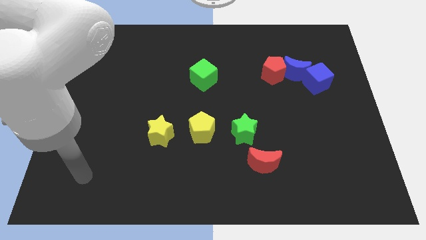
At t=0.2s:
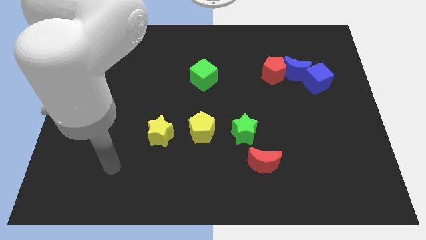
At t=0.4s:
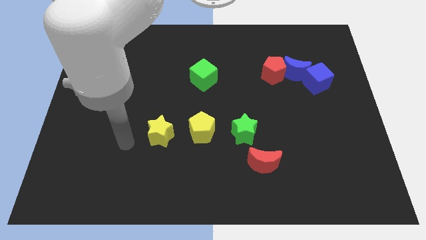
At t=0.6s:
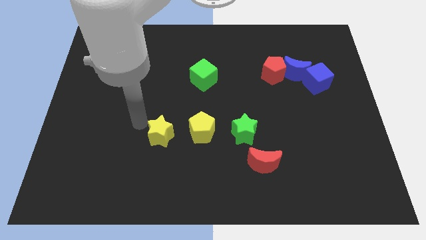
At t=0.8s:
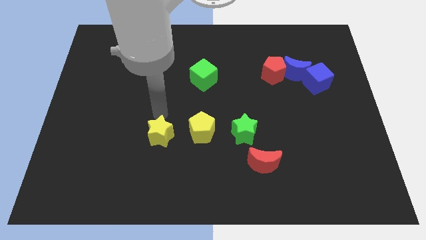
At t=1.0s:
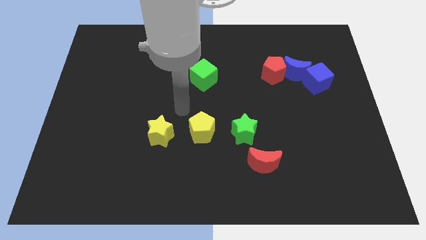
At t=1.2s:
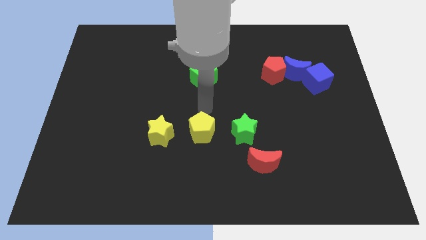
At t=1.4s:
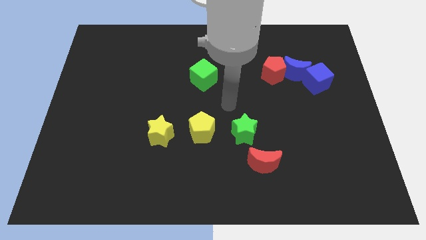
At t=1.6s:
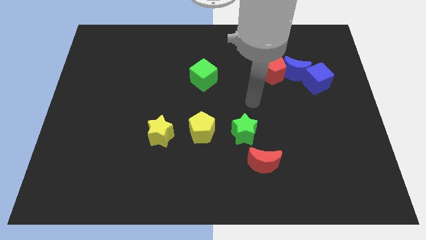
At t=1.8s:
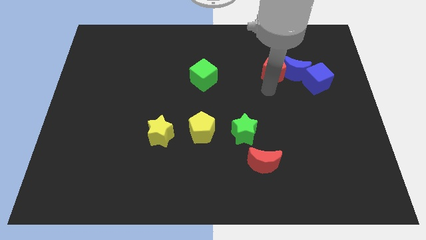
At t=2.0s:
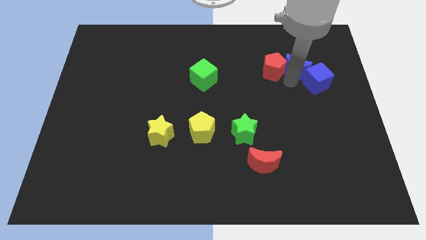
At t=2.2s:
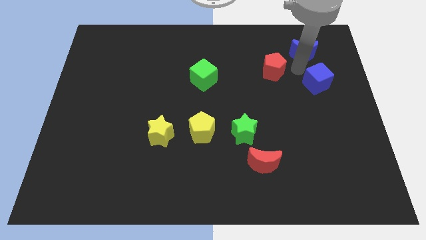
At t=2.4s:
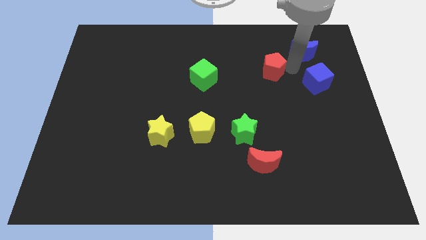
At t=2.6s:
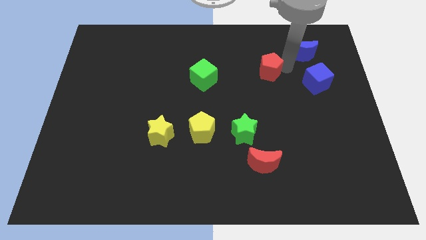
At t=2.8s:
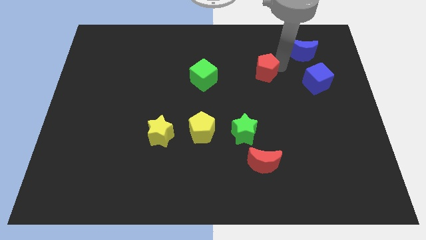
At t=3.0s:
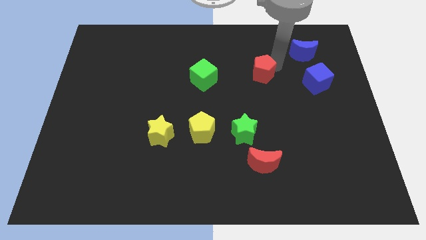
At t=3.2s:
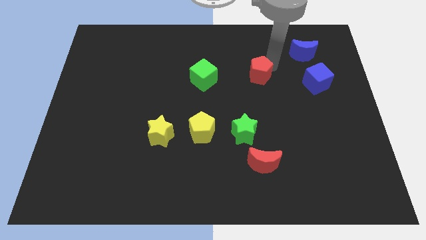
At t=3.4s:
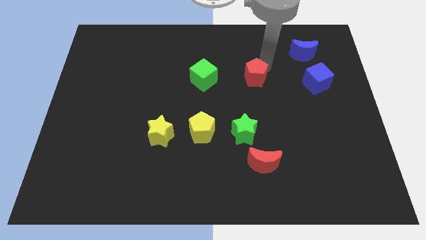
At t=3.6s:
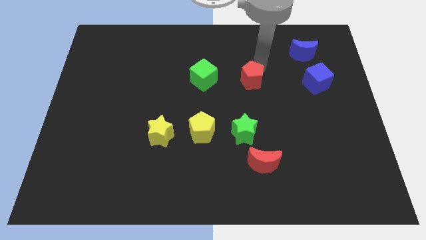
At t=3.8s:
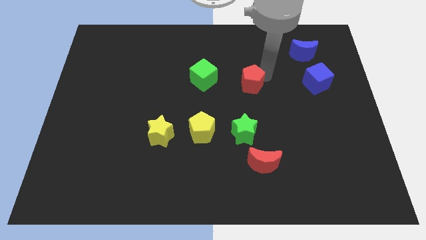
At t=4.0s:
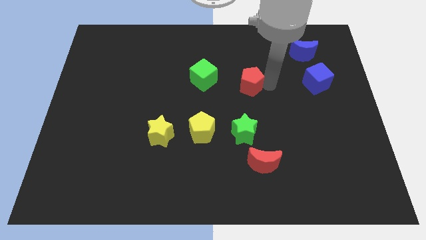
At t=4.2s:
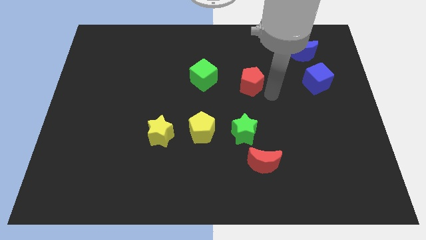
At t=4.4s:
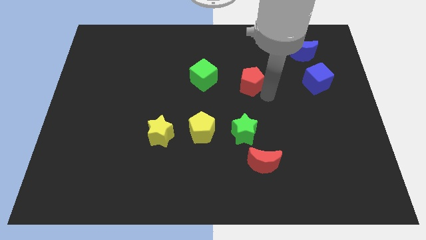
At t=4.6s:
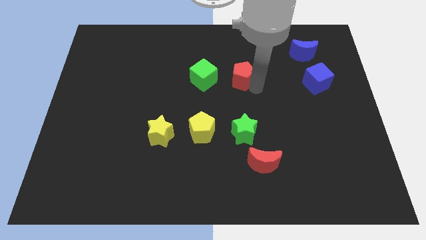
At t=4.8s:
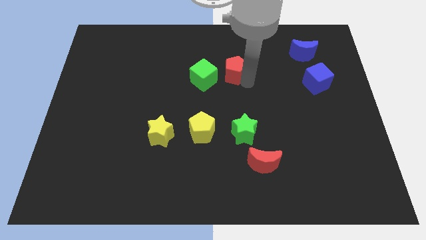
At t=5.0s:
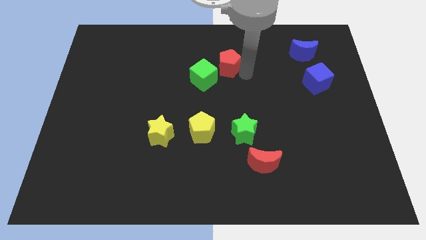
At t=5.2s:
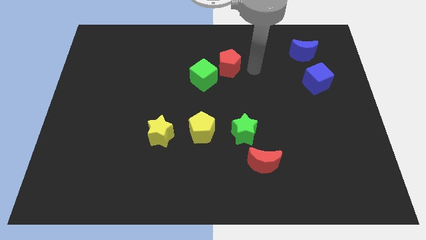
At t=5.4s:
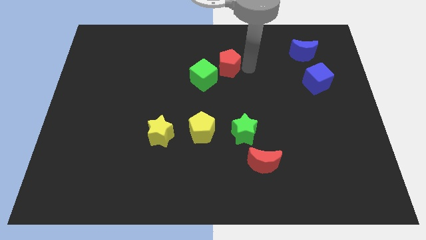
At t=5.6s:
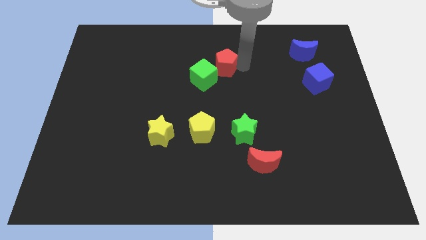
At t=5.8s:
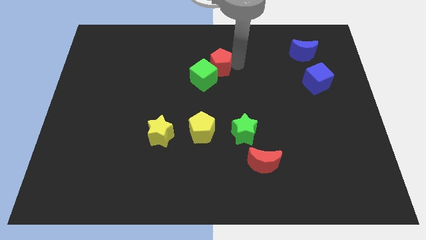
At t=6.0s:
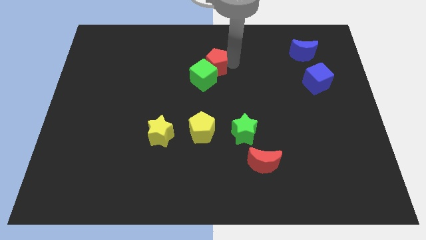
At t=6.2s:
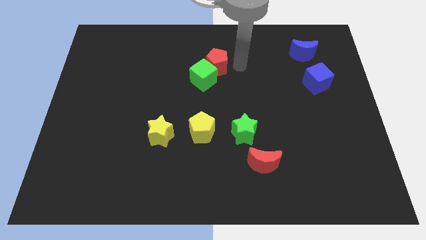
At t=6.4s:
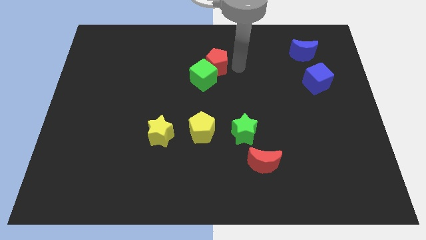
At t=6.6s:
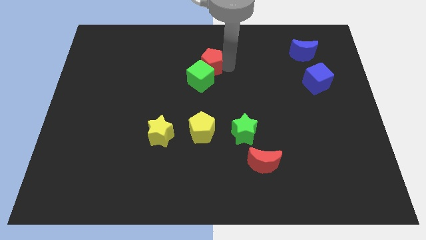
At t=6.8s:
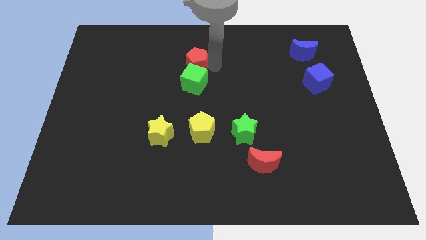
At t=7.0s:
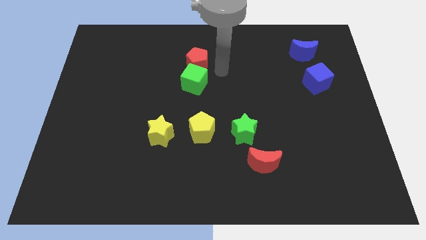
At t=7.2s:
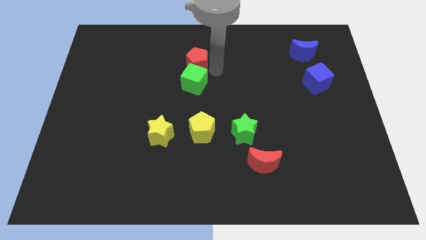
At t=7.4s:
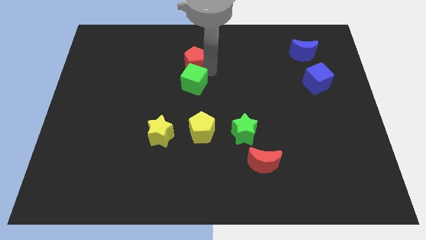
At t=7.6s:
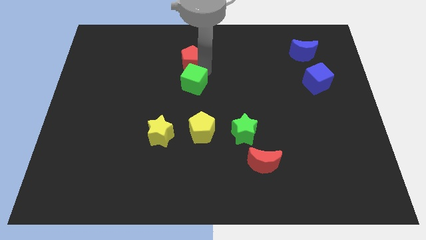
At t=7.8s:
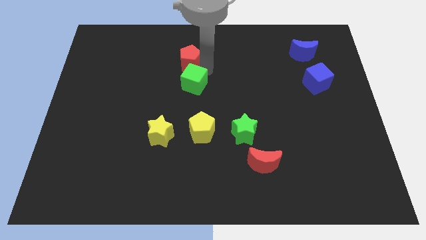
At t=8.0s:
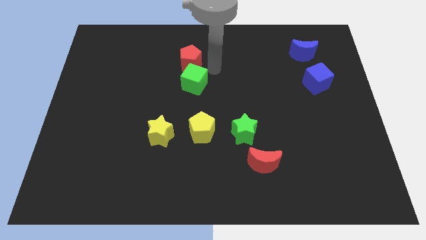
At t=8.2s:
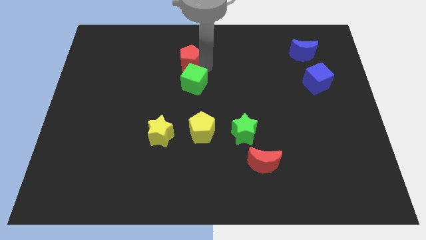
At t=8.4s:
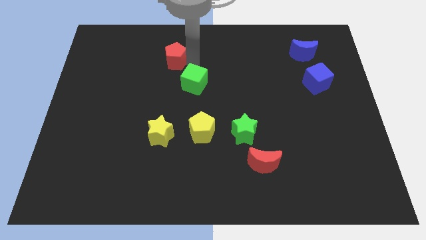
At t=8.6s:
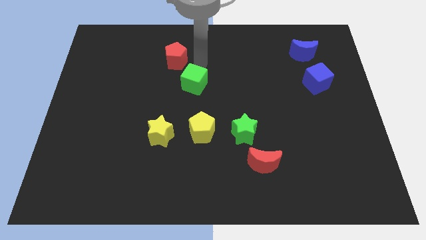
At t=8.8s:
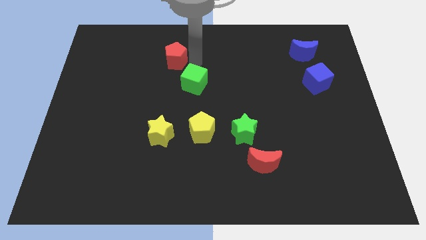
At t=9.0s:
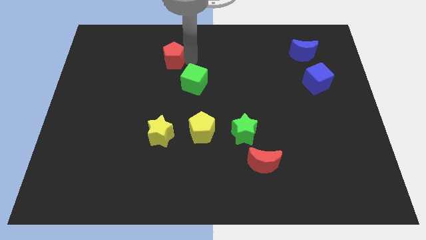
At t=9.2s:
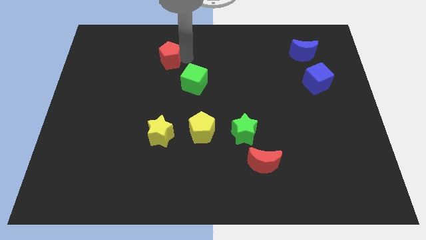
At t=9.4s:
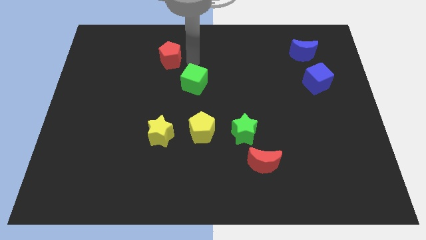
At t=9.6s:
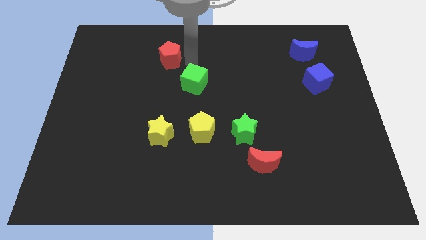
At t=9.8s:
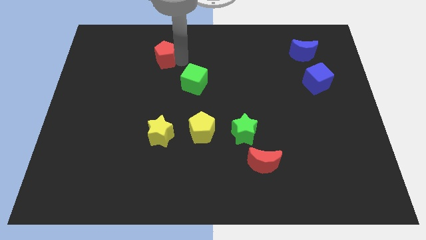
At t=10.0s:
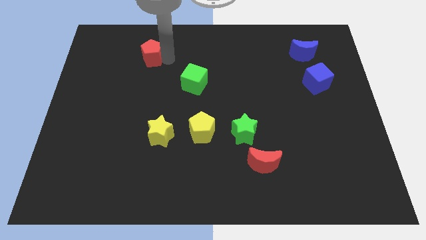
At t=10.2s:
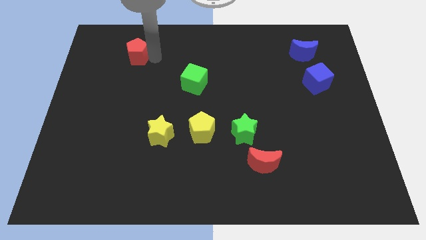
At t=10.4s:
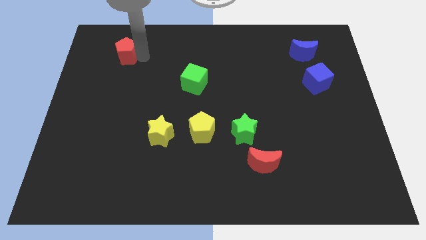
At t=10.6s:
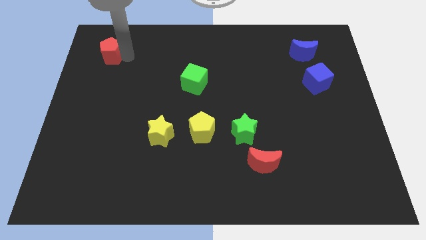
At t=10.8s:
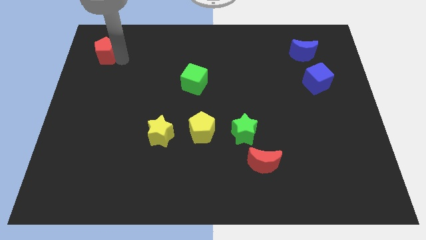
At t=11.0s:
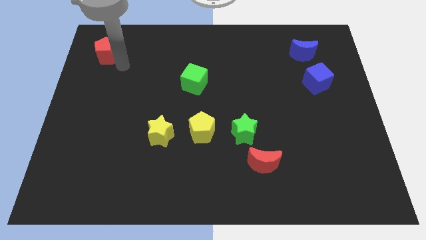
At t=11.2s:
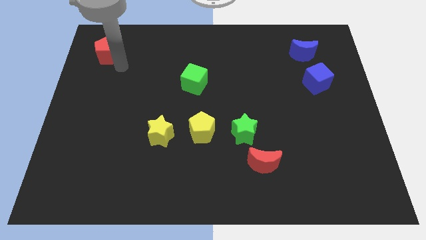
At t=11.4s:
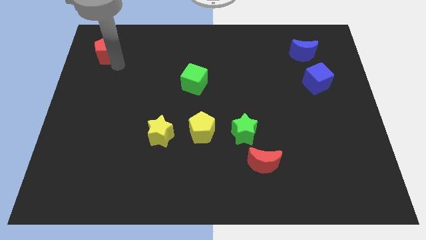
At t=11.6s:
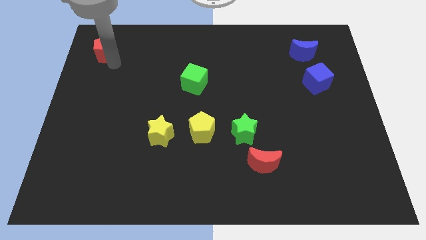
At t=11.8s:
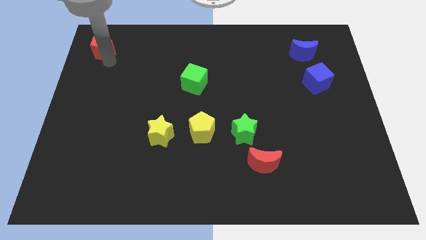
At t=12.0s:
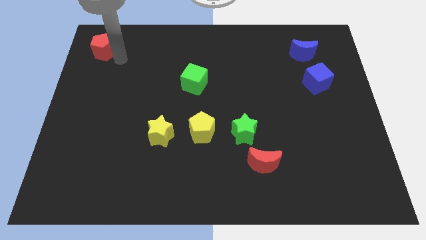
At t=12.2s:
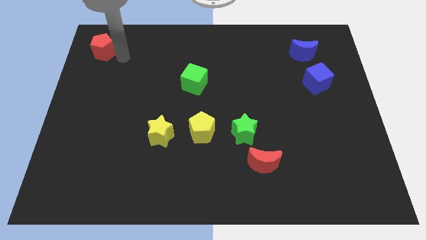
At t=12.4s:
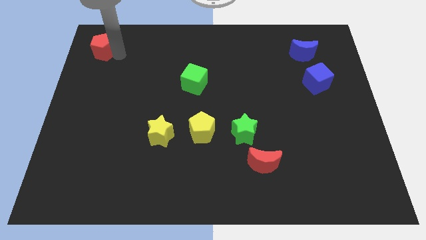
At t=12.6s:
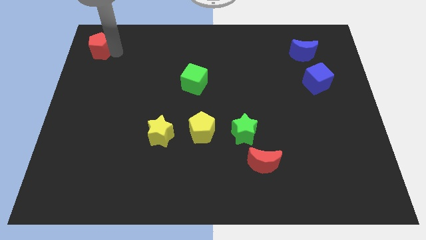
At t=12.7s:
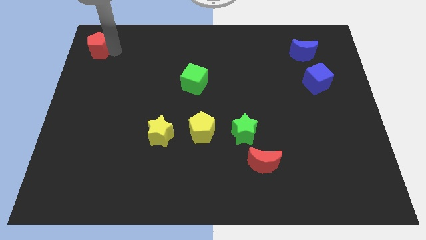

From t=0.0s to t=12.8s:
put the red pentagon to the top left of the board

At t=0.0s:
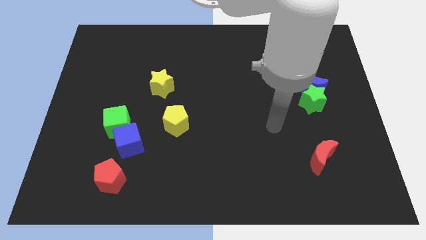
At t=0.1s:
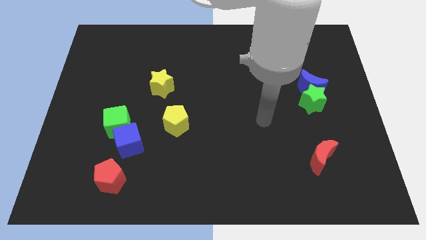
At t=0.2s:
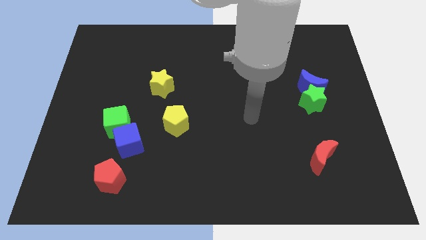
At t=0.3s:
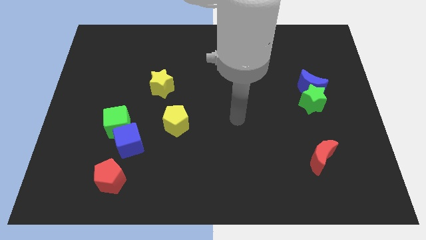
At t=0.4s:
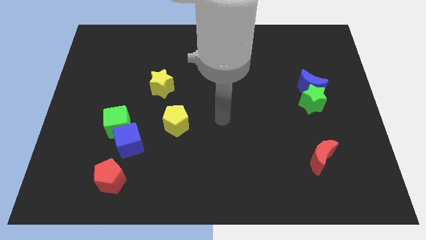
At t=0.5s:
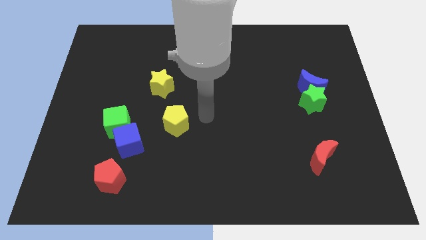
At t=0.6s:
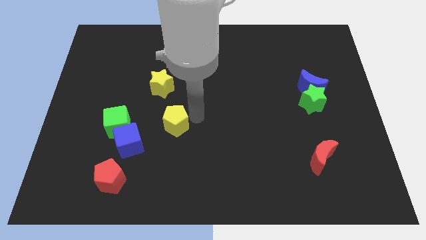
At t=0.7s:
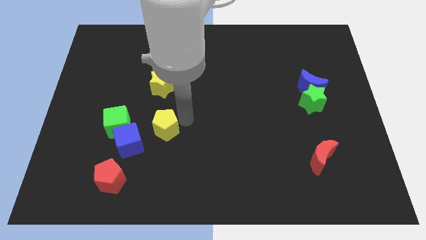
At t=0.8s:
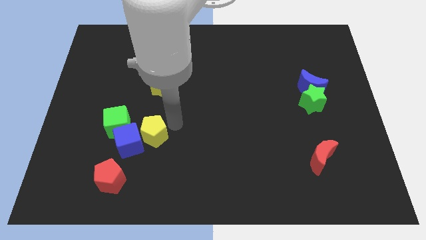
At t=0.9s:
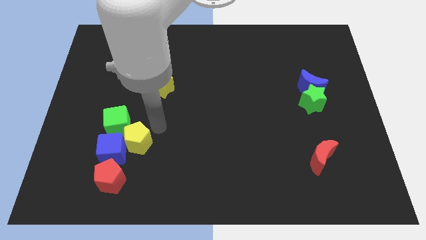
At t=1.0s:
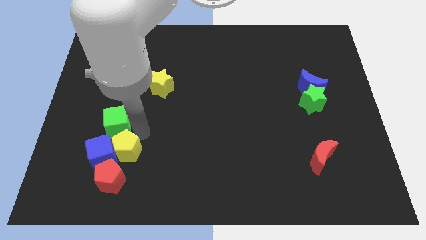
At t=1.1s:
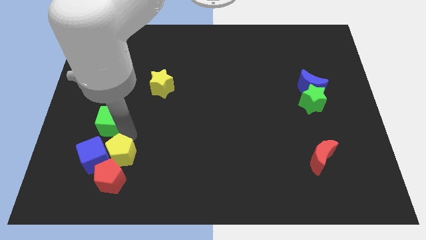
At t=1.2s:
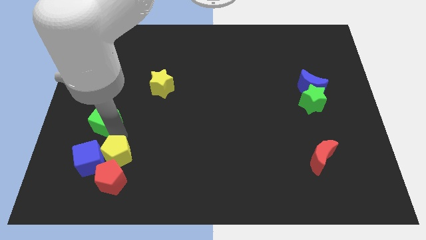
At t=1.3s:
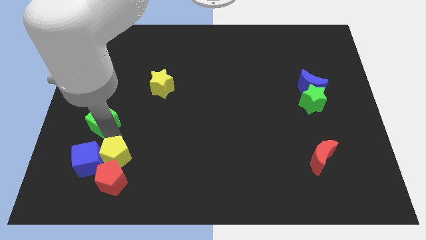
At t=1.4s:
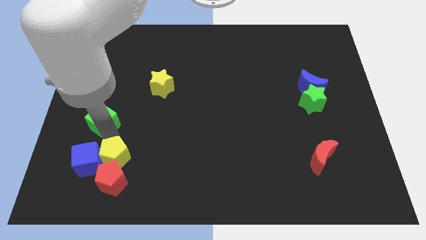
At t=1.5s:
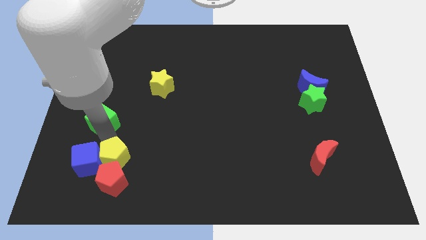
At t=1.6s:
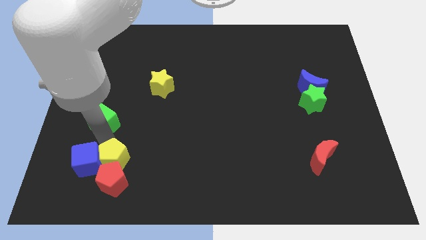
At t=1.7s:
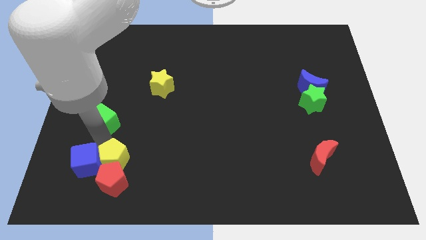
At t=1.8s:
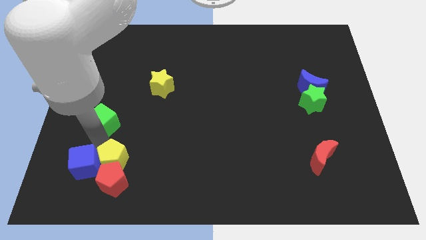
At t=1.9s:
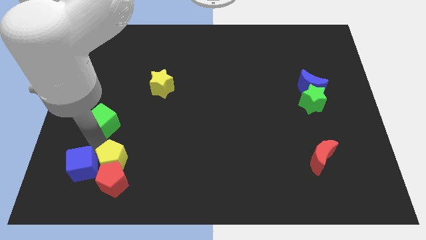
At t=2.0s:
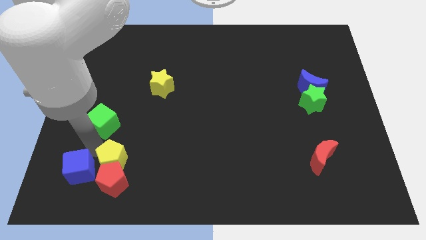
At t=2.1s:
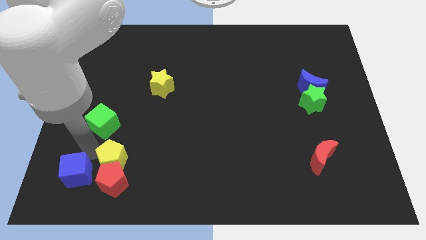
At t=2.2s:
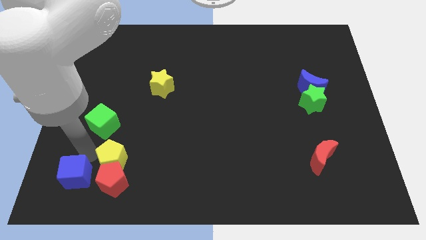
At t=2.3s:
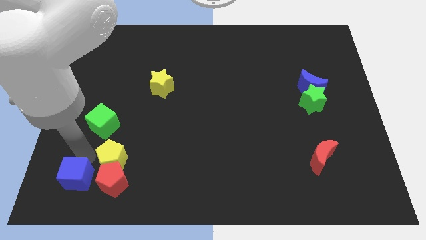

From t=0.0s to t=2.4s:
move the blue cube to the bottom left corner
